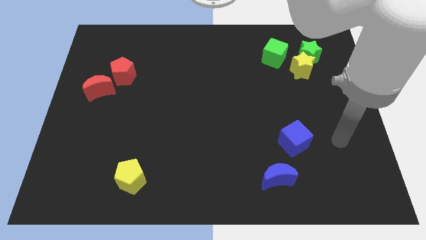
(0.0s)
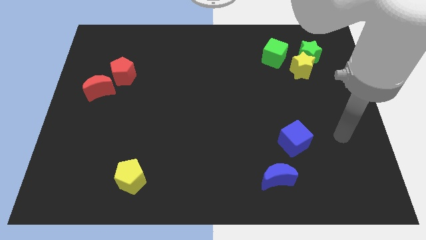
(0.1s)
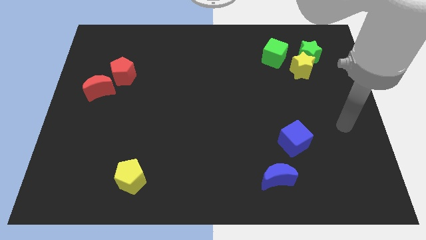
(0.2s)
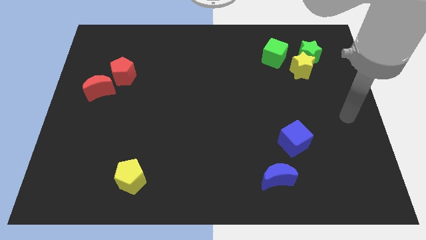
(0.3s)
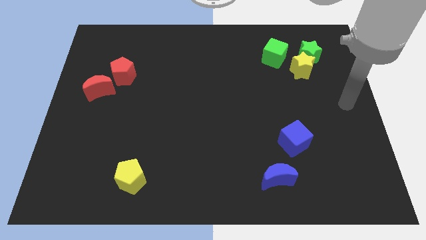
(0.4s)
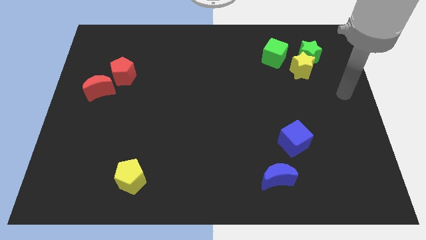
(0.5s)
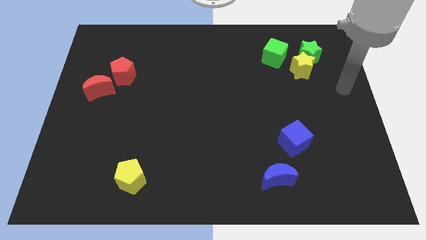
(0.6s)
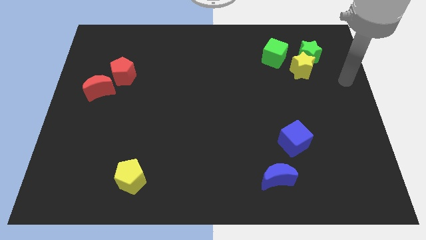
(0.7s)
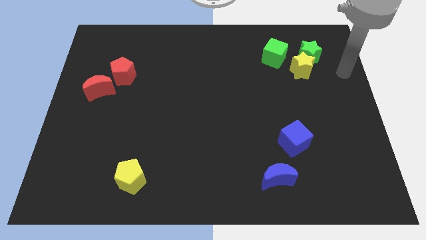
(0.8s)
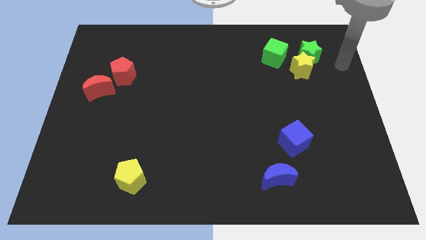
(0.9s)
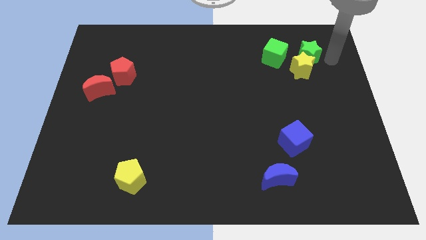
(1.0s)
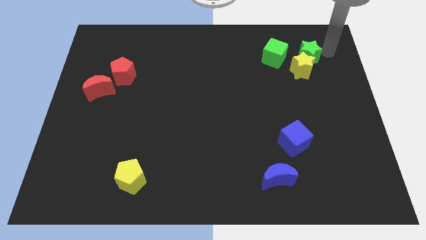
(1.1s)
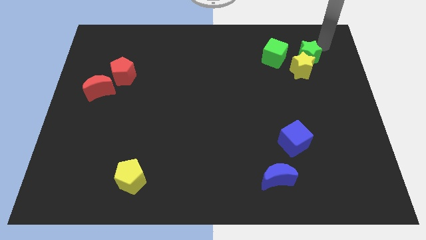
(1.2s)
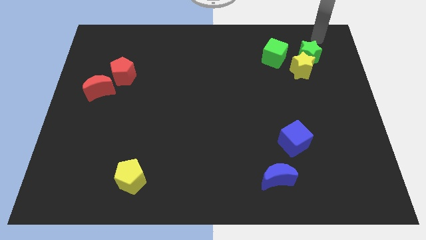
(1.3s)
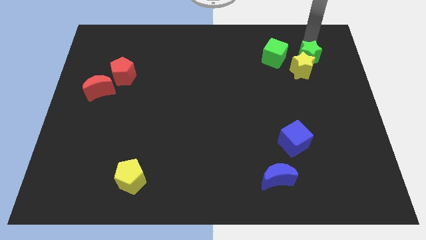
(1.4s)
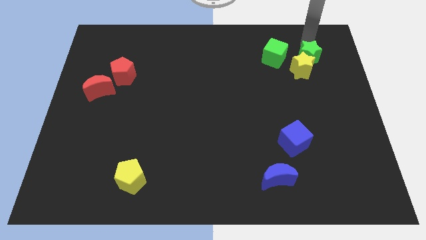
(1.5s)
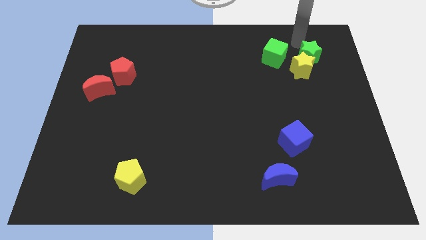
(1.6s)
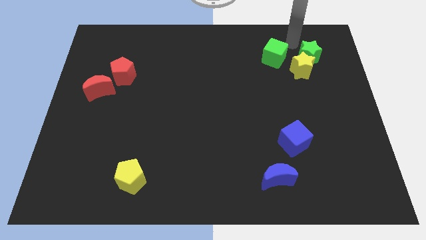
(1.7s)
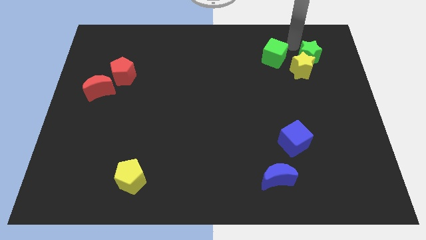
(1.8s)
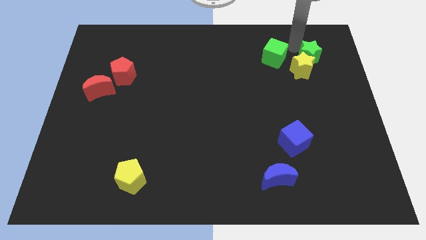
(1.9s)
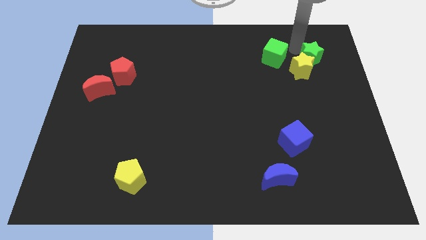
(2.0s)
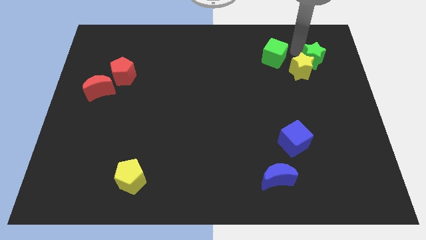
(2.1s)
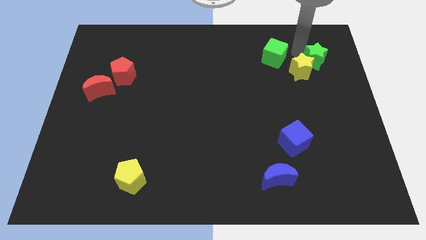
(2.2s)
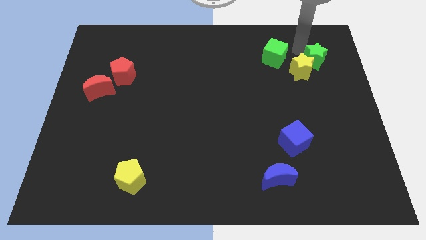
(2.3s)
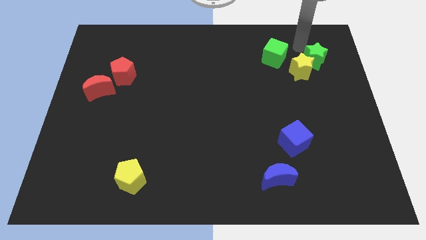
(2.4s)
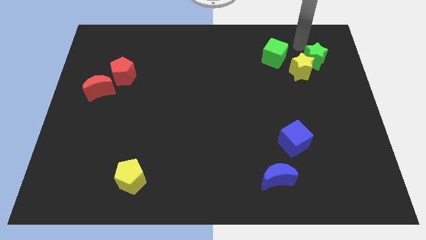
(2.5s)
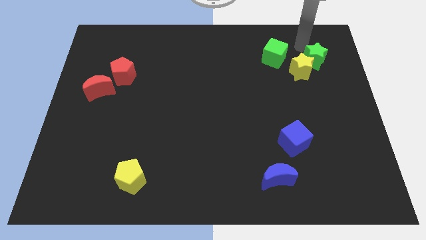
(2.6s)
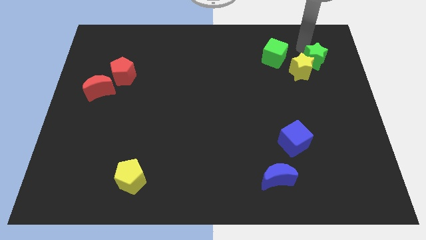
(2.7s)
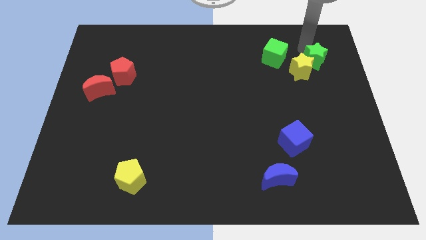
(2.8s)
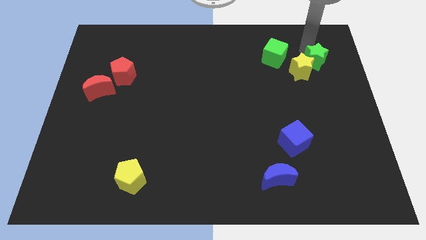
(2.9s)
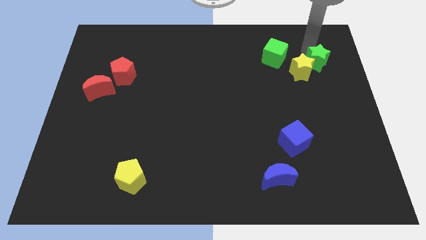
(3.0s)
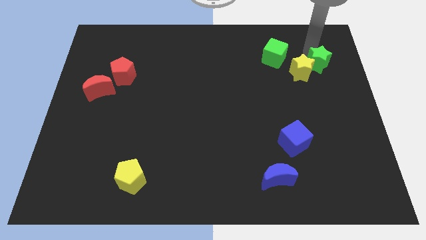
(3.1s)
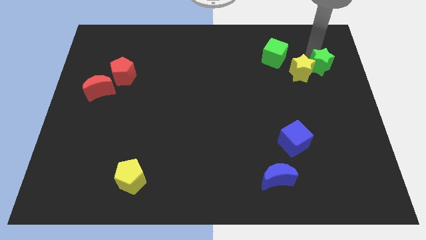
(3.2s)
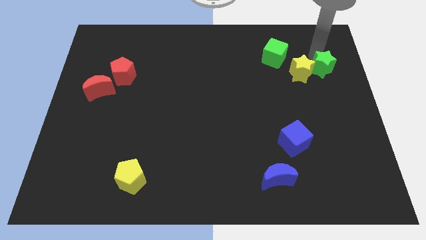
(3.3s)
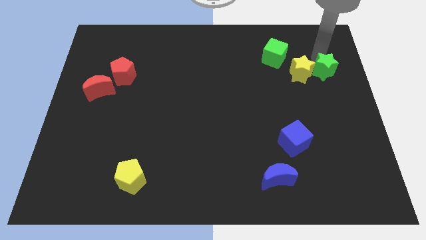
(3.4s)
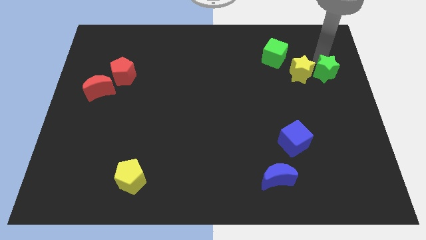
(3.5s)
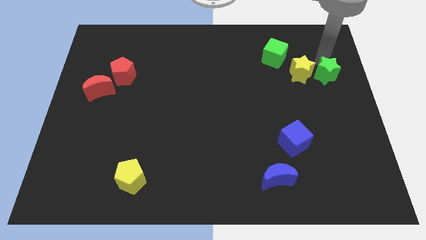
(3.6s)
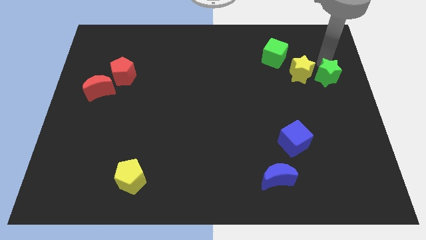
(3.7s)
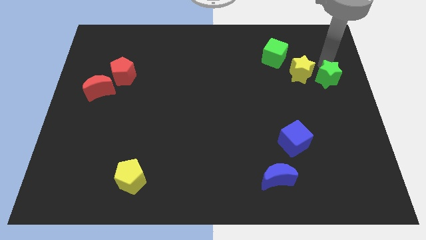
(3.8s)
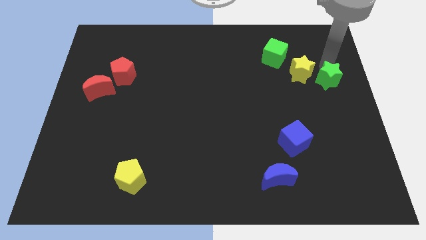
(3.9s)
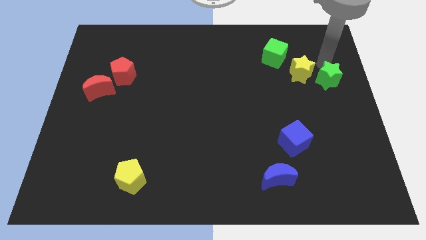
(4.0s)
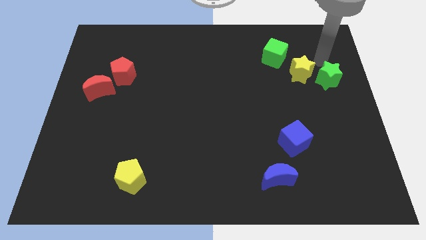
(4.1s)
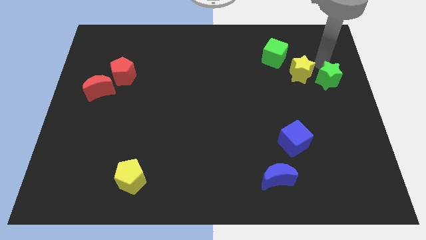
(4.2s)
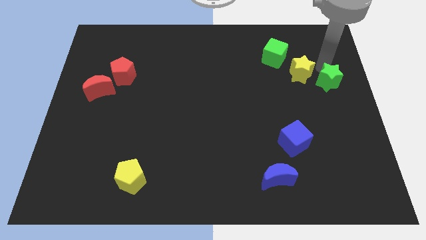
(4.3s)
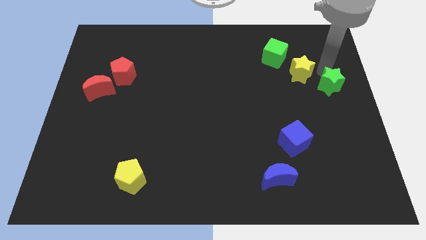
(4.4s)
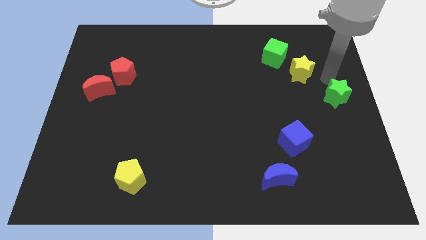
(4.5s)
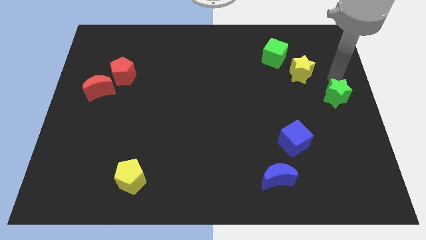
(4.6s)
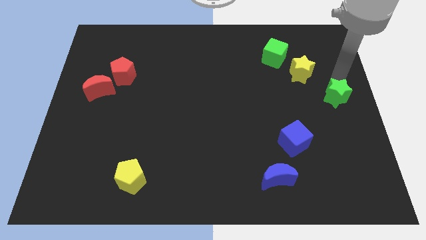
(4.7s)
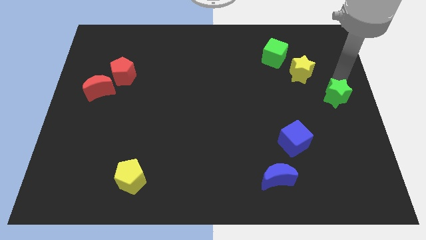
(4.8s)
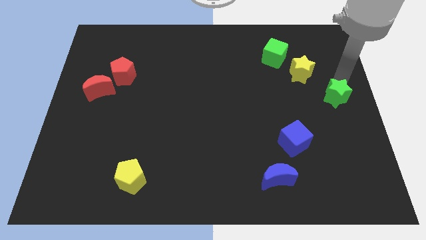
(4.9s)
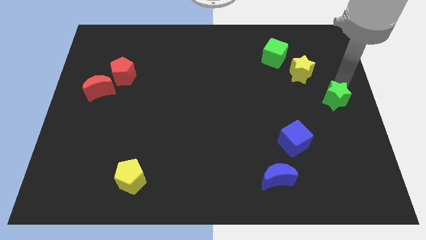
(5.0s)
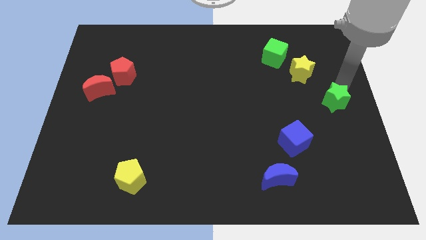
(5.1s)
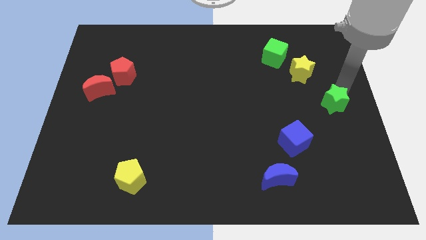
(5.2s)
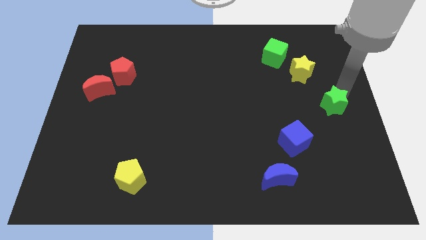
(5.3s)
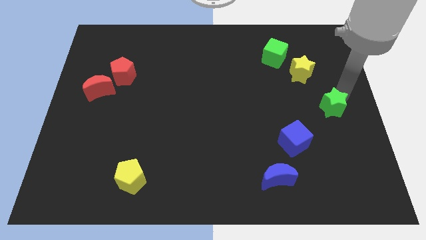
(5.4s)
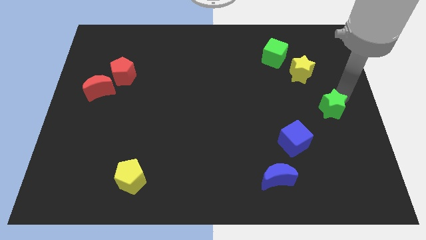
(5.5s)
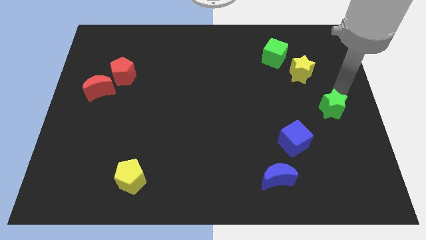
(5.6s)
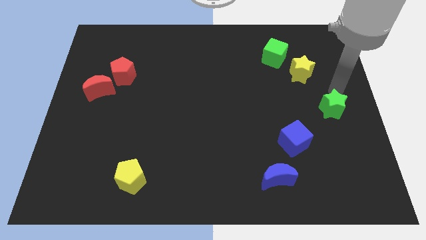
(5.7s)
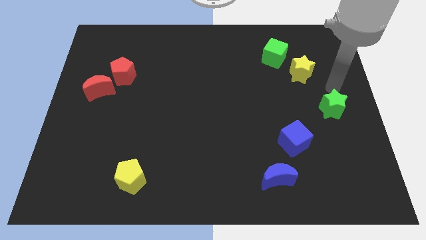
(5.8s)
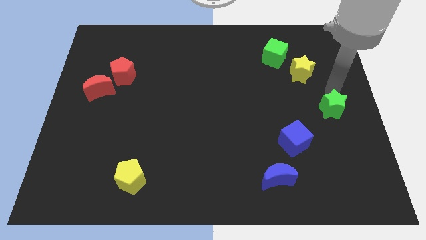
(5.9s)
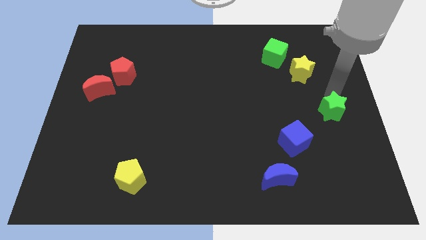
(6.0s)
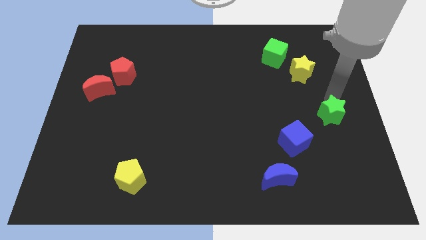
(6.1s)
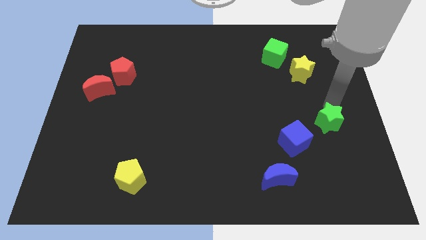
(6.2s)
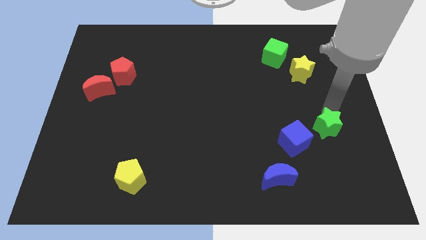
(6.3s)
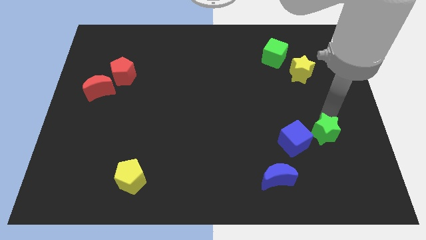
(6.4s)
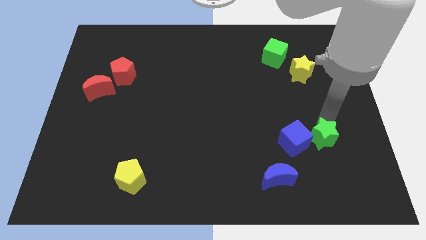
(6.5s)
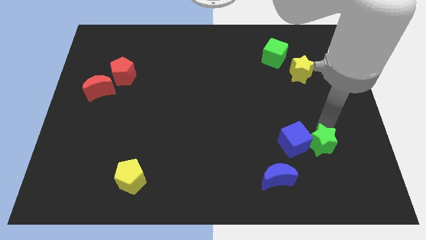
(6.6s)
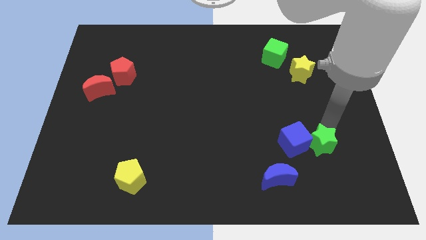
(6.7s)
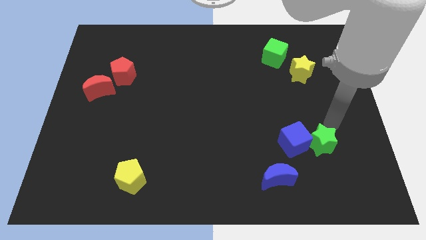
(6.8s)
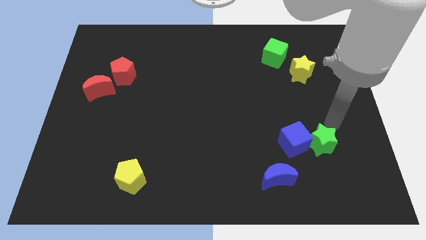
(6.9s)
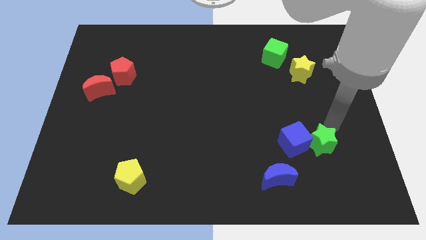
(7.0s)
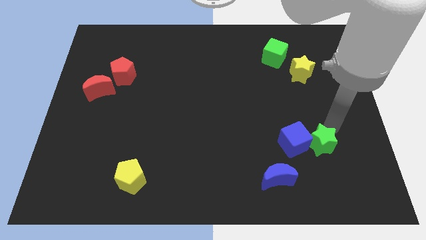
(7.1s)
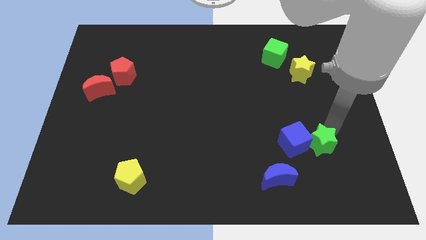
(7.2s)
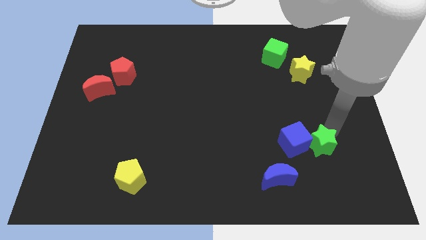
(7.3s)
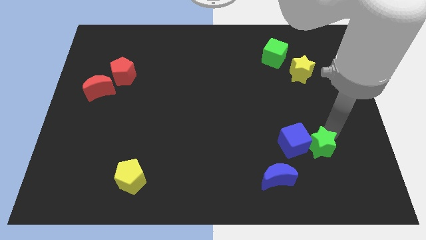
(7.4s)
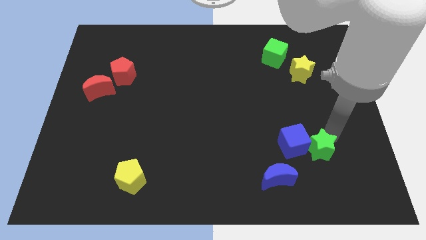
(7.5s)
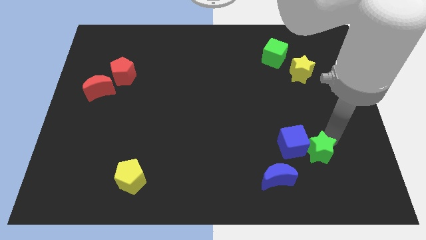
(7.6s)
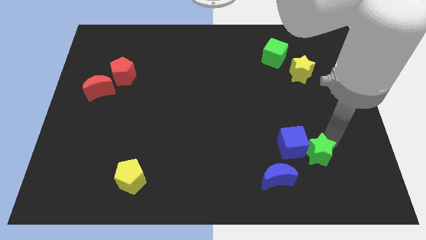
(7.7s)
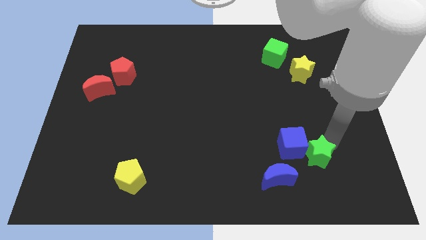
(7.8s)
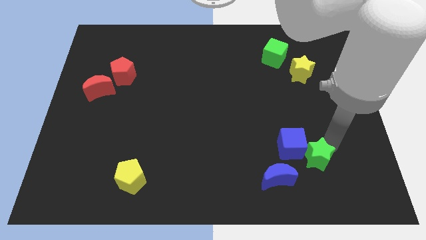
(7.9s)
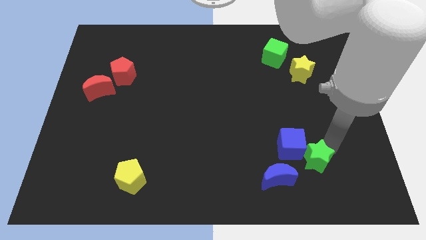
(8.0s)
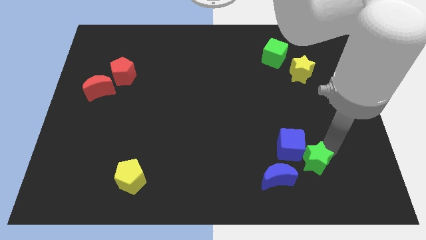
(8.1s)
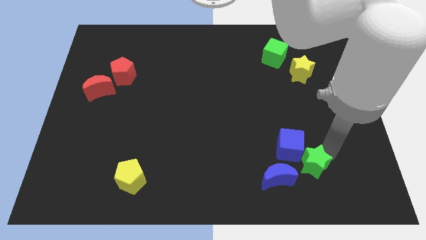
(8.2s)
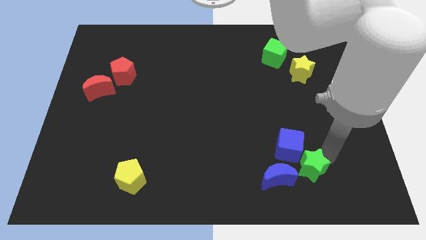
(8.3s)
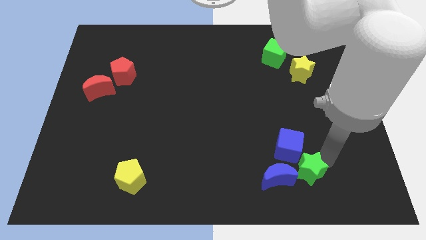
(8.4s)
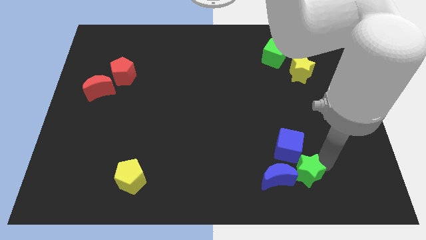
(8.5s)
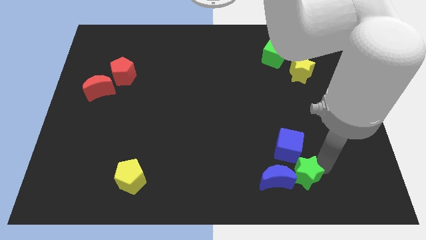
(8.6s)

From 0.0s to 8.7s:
push the green star next to the blue moon
